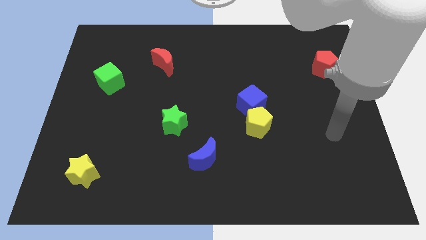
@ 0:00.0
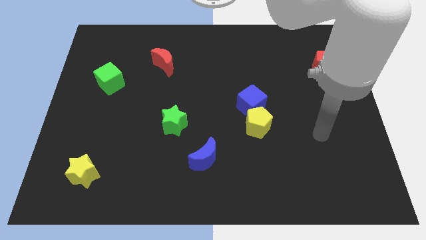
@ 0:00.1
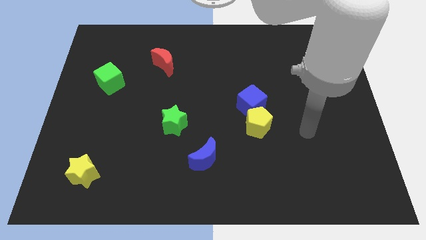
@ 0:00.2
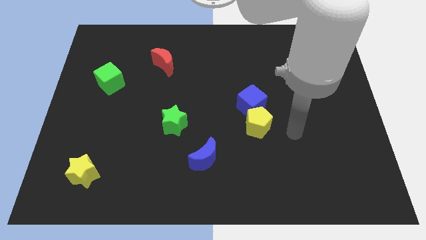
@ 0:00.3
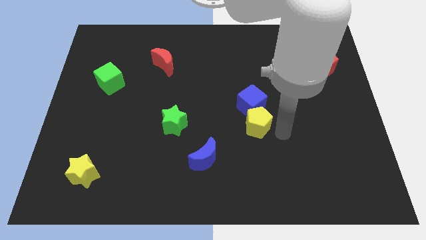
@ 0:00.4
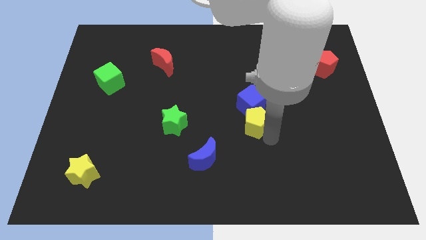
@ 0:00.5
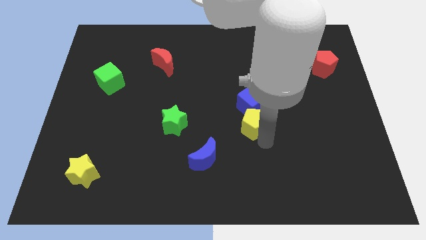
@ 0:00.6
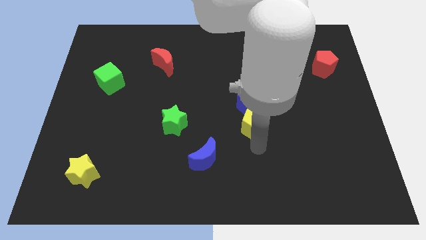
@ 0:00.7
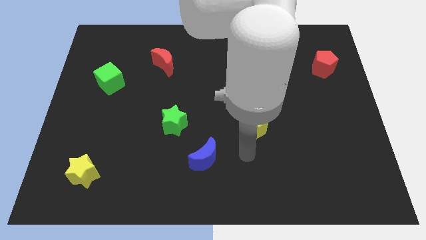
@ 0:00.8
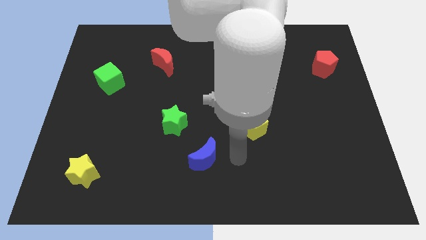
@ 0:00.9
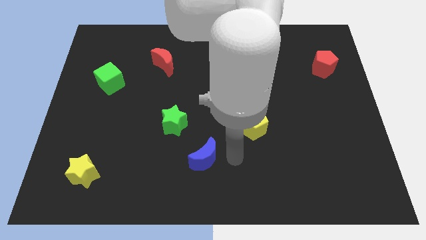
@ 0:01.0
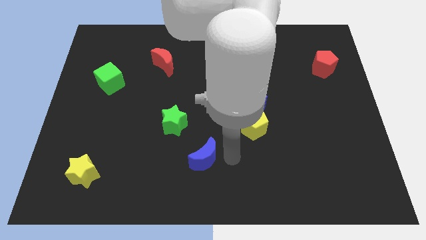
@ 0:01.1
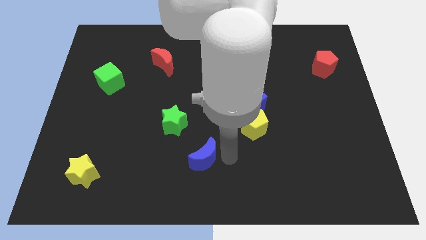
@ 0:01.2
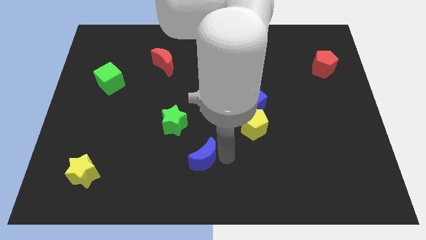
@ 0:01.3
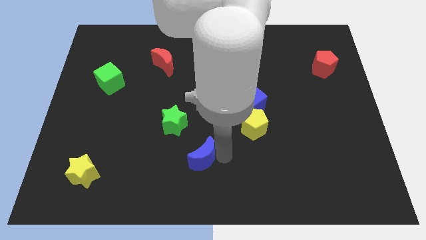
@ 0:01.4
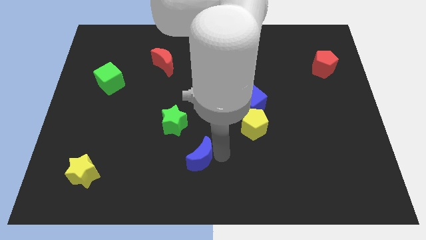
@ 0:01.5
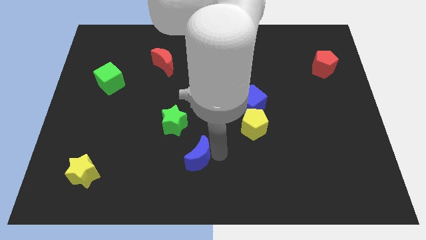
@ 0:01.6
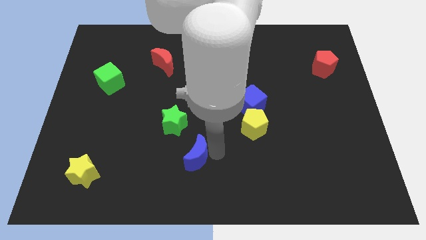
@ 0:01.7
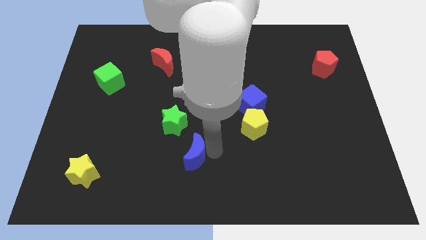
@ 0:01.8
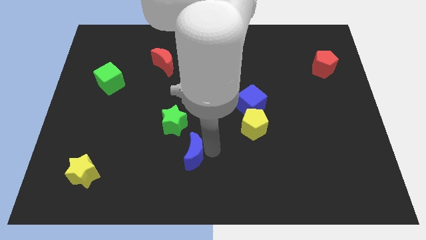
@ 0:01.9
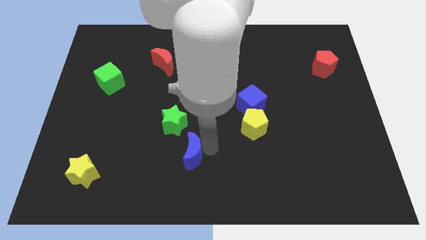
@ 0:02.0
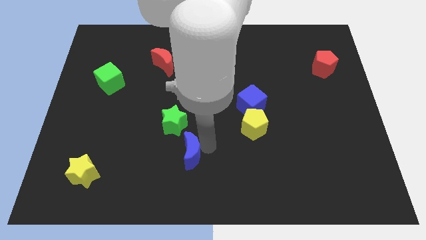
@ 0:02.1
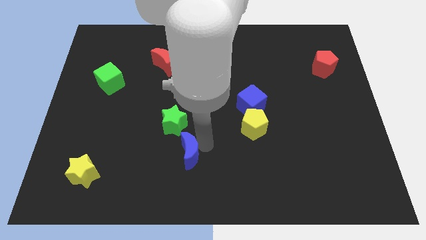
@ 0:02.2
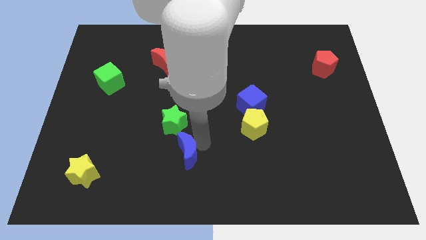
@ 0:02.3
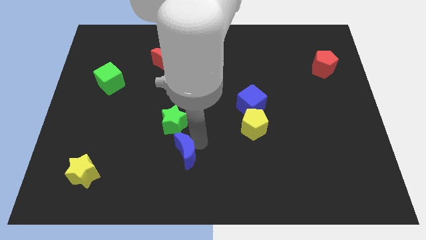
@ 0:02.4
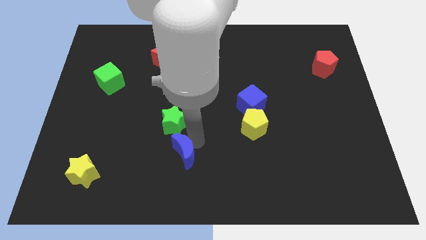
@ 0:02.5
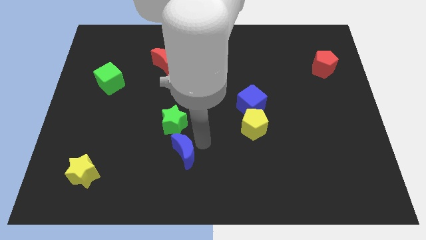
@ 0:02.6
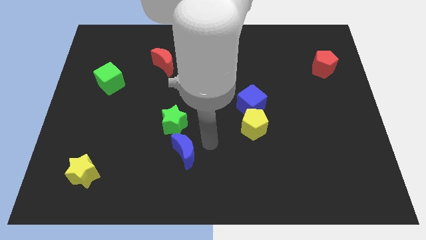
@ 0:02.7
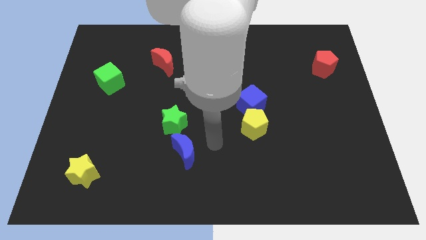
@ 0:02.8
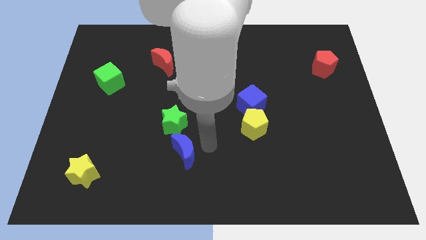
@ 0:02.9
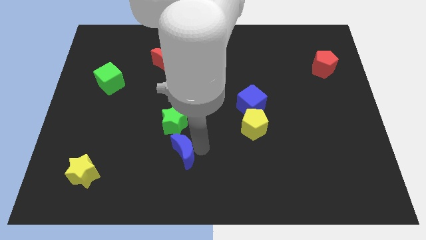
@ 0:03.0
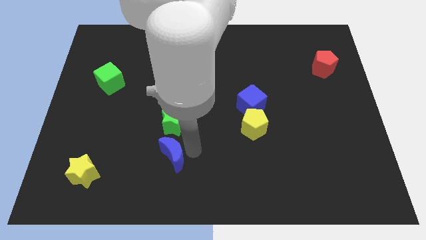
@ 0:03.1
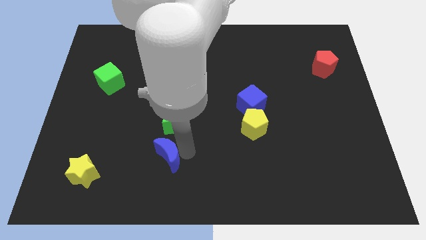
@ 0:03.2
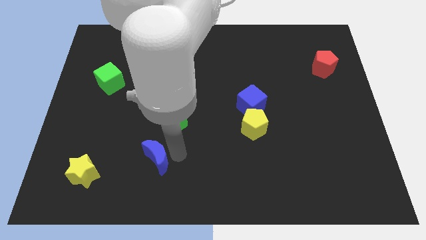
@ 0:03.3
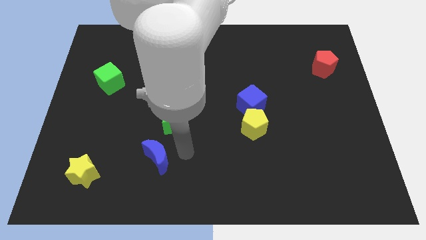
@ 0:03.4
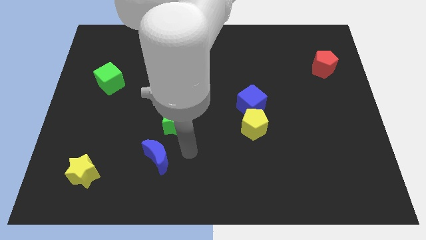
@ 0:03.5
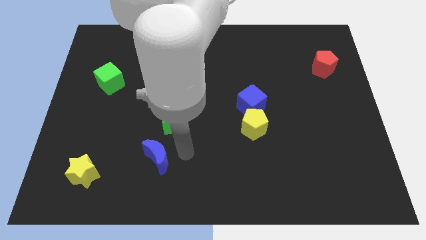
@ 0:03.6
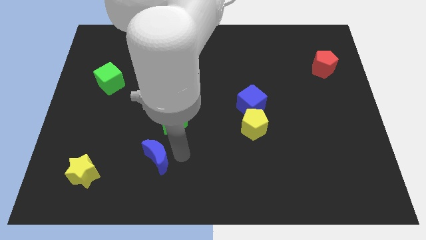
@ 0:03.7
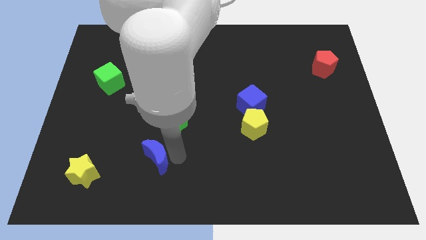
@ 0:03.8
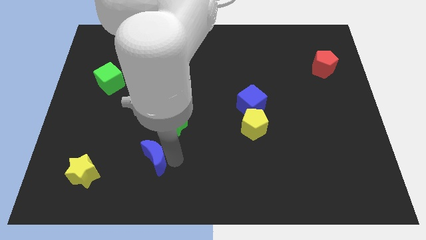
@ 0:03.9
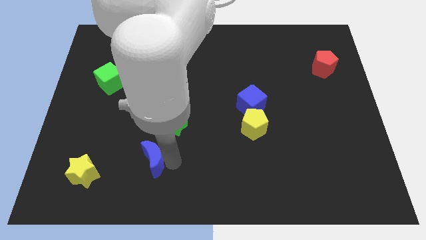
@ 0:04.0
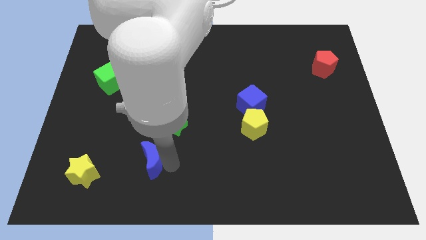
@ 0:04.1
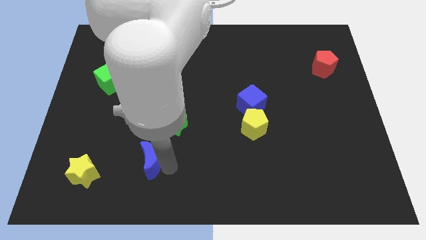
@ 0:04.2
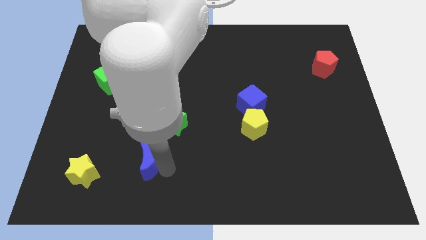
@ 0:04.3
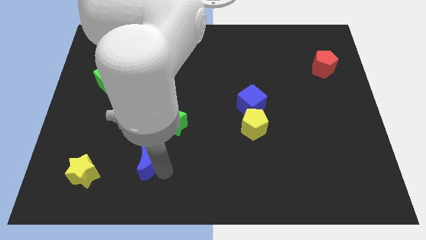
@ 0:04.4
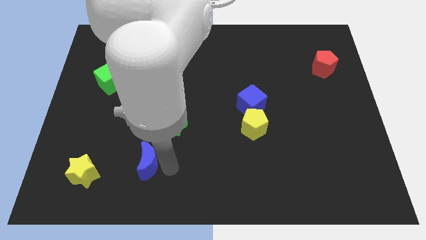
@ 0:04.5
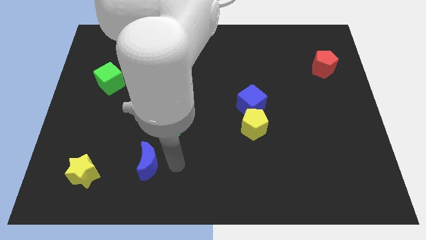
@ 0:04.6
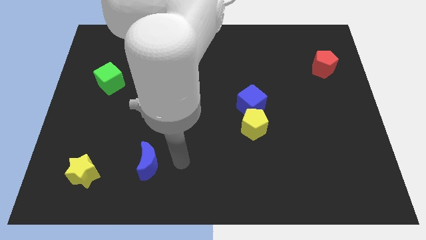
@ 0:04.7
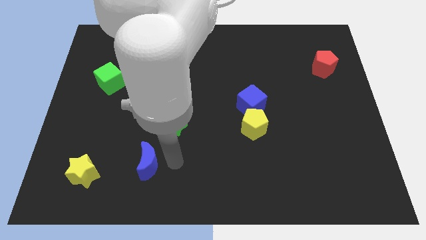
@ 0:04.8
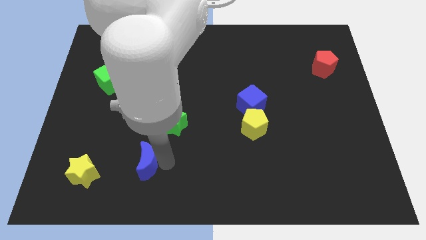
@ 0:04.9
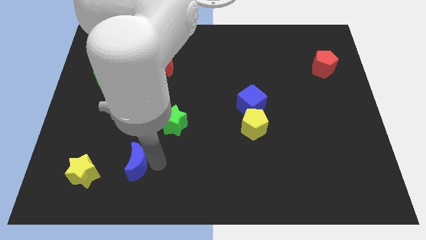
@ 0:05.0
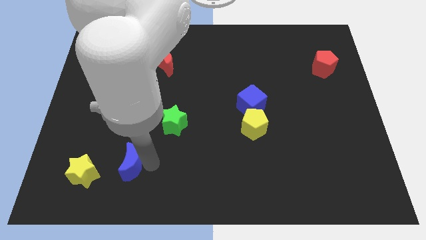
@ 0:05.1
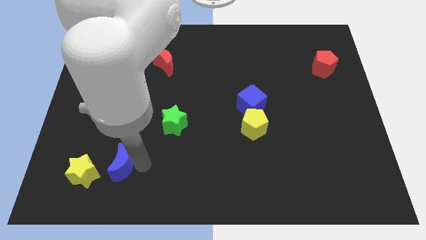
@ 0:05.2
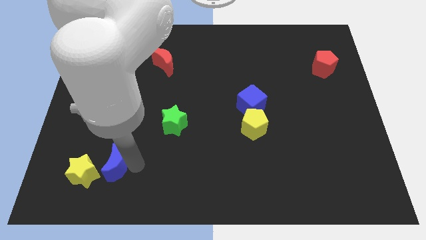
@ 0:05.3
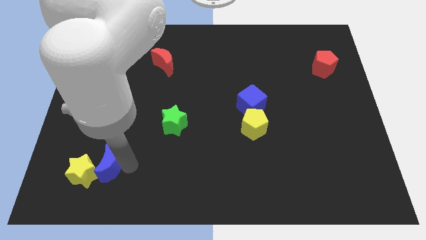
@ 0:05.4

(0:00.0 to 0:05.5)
put the blue moon next to the yellow star

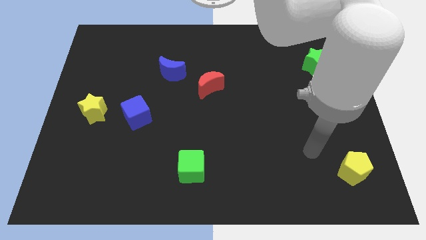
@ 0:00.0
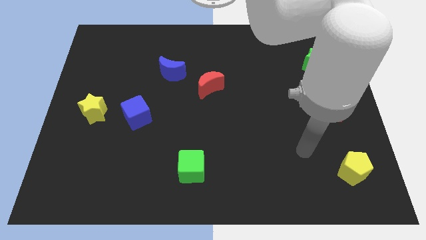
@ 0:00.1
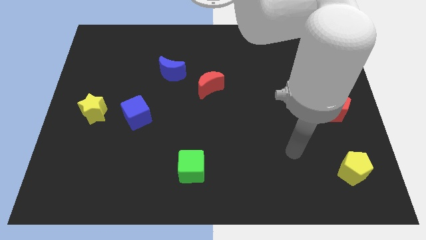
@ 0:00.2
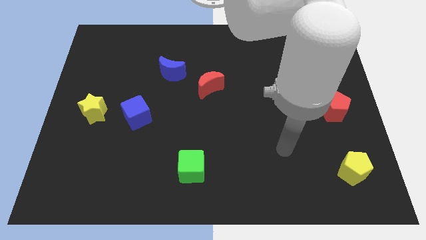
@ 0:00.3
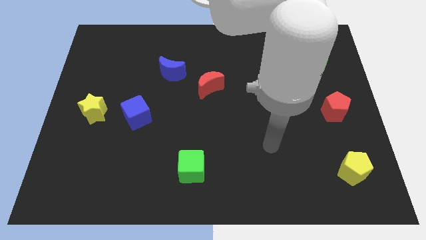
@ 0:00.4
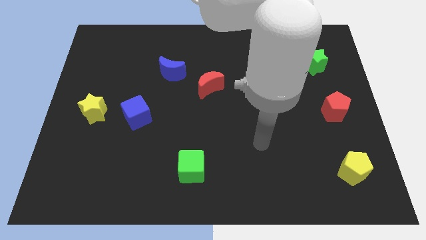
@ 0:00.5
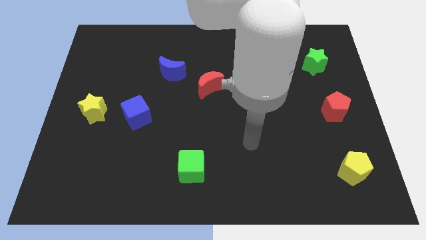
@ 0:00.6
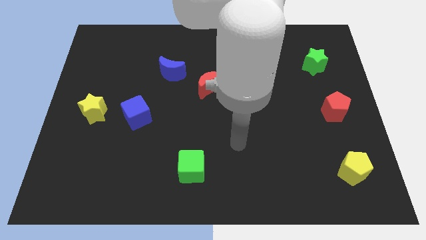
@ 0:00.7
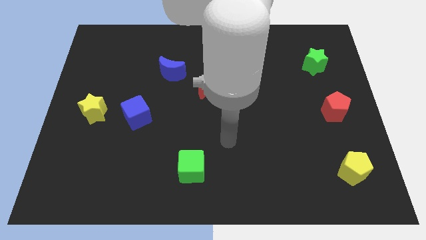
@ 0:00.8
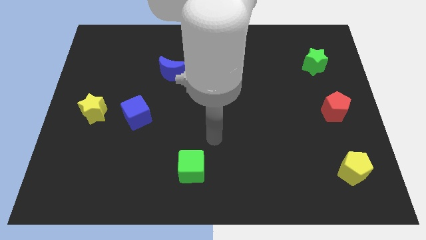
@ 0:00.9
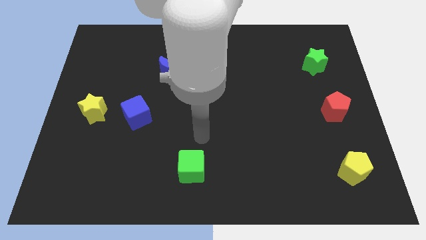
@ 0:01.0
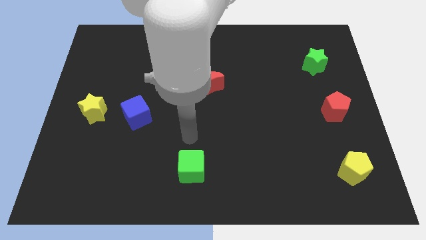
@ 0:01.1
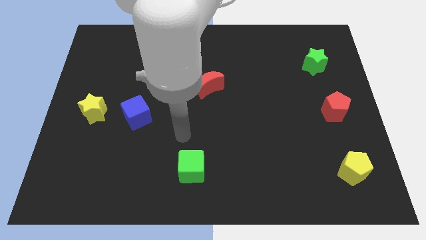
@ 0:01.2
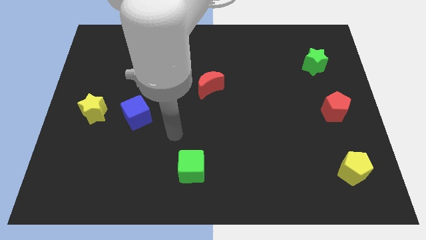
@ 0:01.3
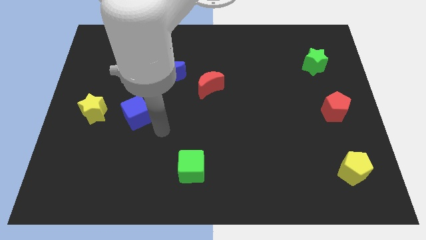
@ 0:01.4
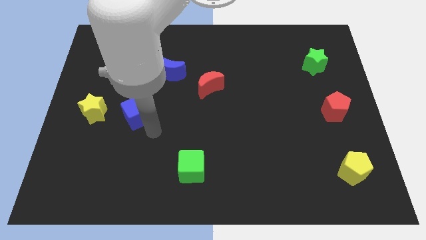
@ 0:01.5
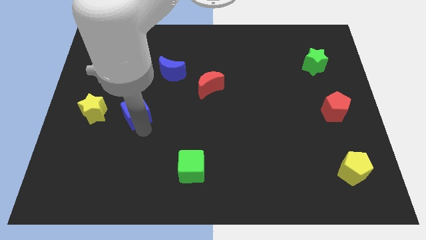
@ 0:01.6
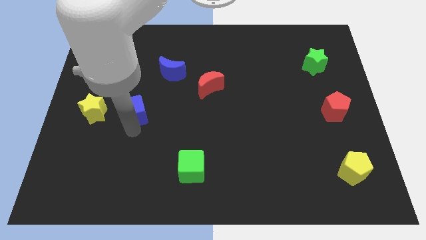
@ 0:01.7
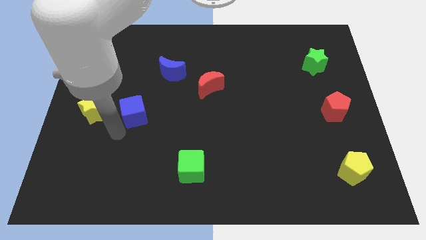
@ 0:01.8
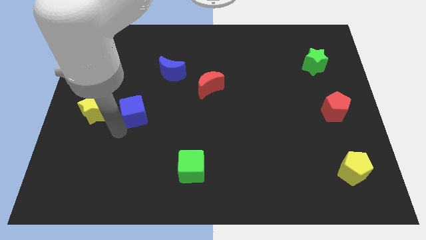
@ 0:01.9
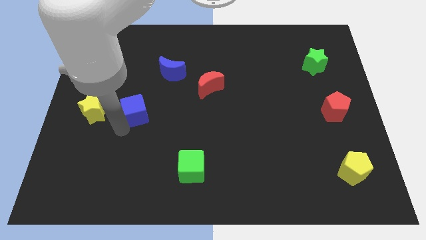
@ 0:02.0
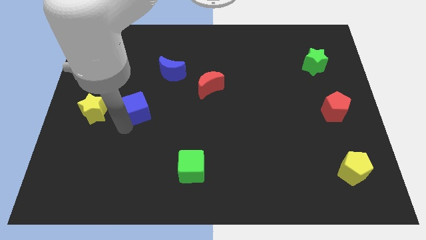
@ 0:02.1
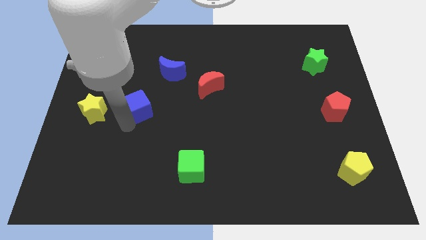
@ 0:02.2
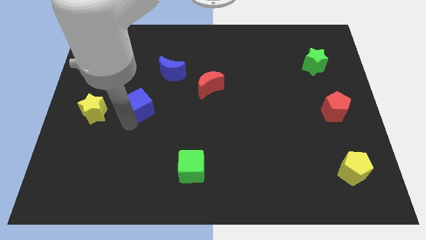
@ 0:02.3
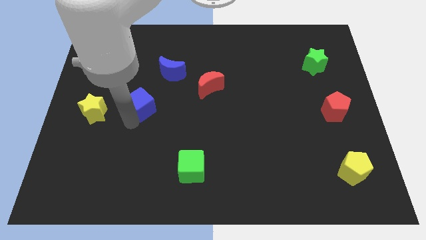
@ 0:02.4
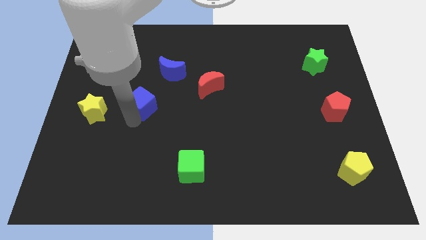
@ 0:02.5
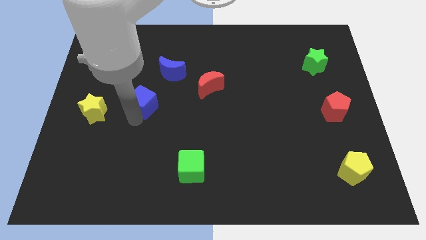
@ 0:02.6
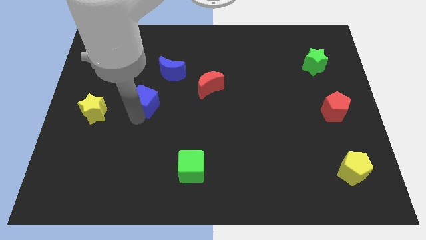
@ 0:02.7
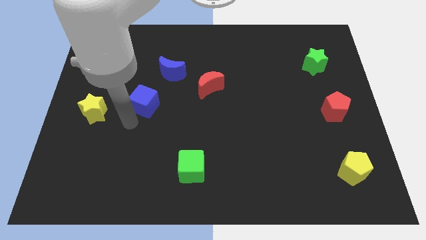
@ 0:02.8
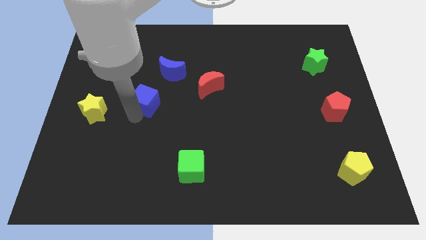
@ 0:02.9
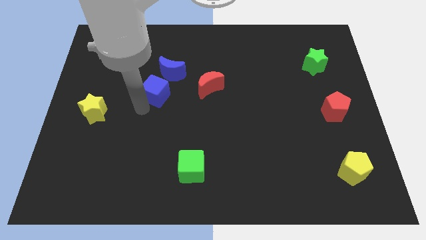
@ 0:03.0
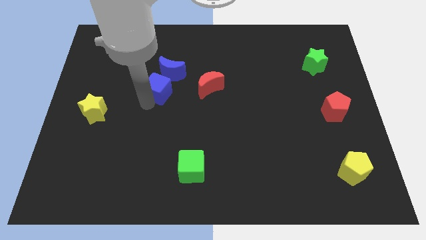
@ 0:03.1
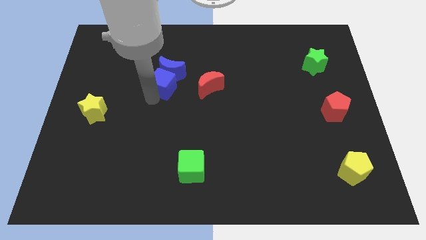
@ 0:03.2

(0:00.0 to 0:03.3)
slide the blue cube close to the blue moon
